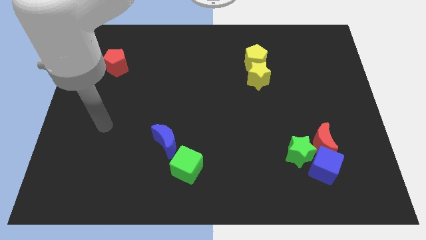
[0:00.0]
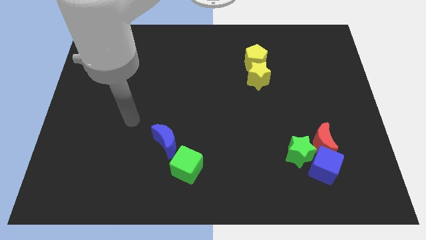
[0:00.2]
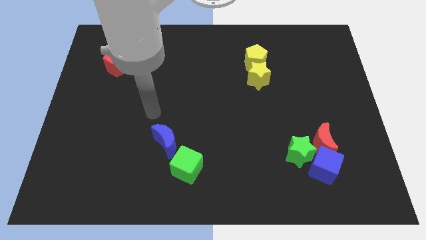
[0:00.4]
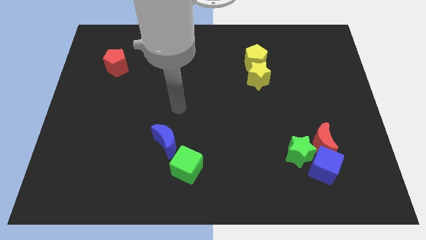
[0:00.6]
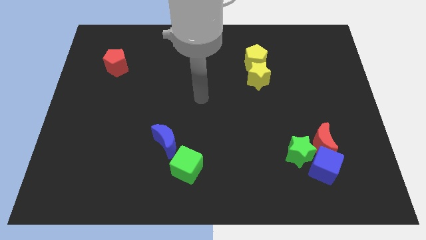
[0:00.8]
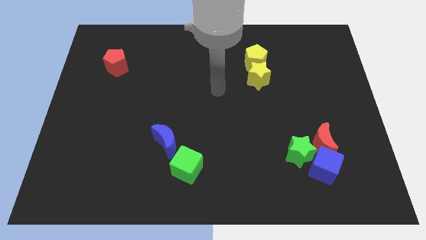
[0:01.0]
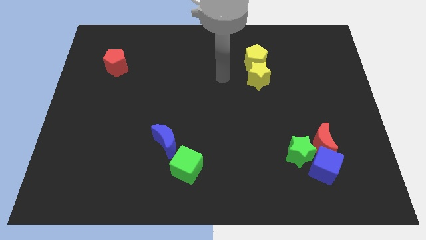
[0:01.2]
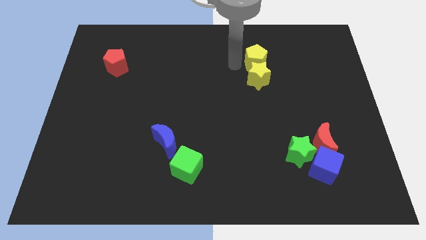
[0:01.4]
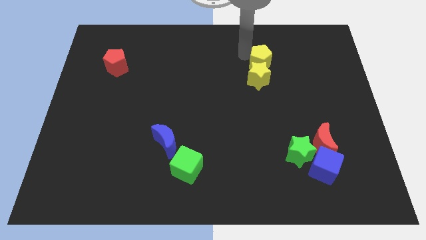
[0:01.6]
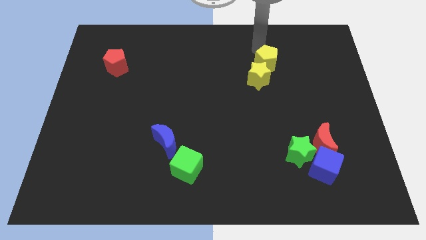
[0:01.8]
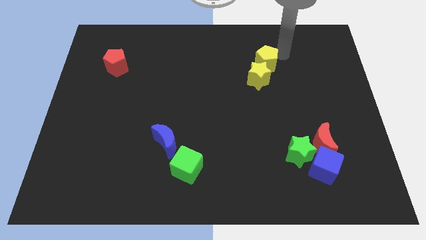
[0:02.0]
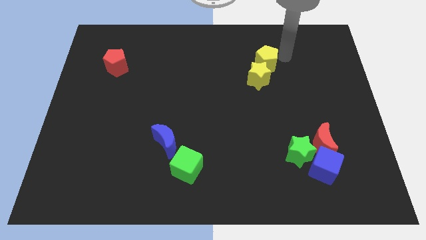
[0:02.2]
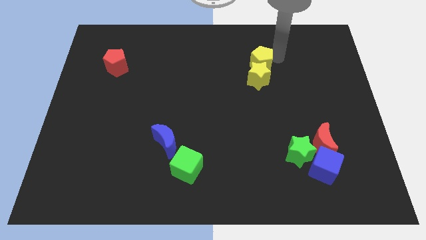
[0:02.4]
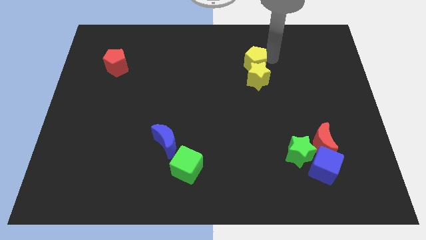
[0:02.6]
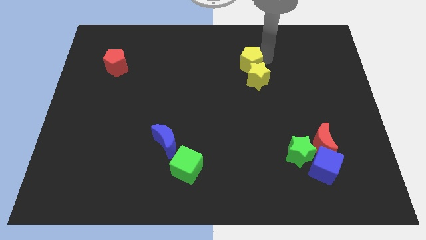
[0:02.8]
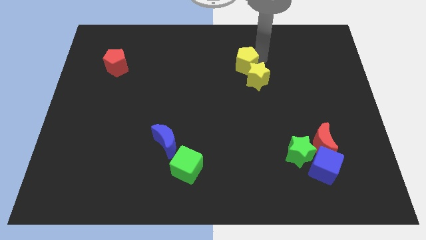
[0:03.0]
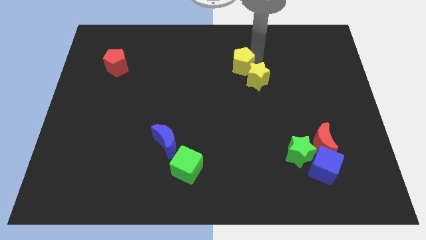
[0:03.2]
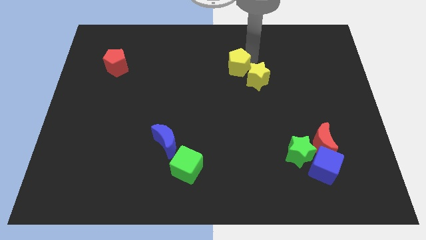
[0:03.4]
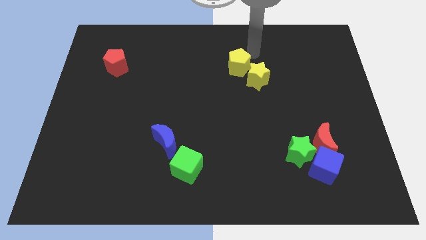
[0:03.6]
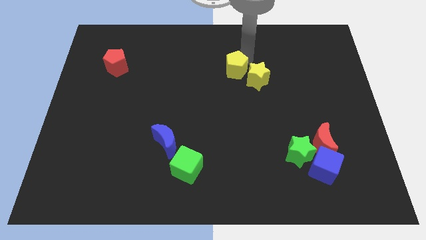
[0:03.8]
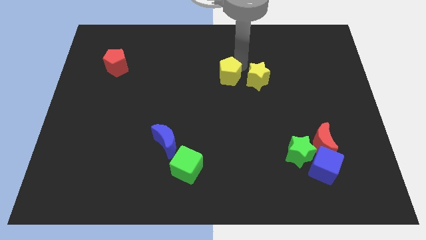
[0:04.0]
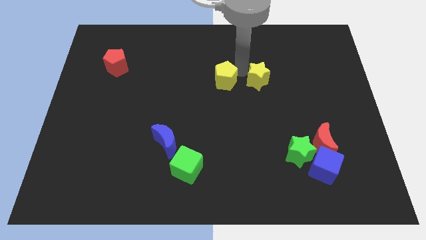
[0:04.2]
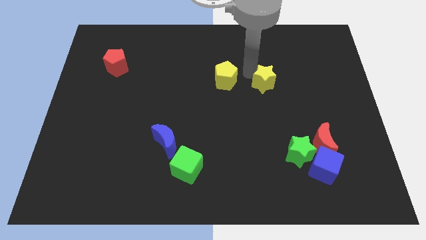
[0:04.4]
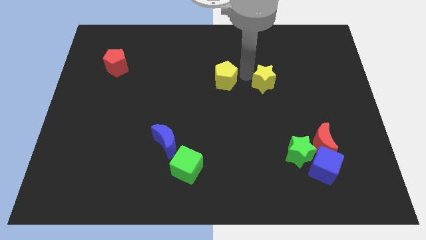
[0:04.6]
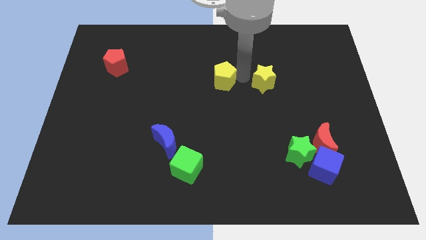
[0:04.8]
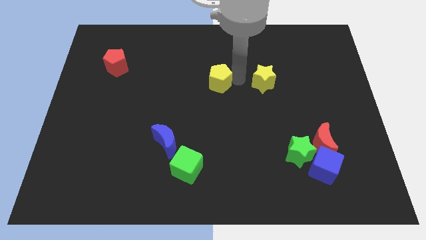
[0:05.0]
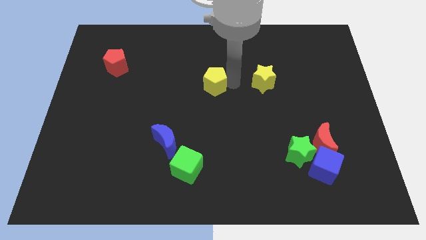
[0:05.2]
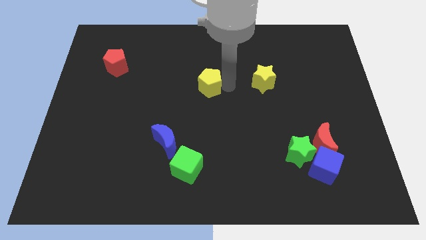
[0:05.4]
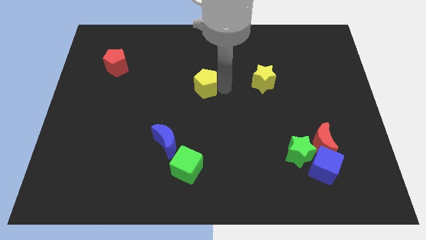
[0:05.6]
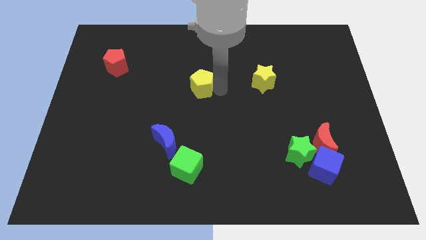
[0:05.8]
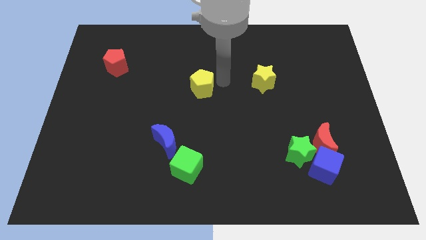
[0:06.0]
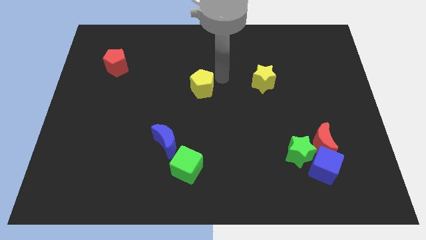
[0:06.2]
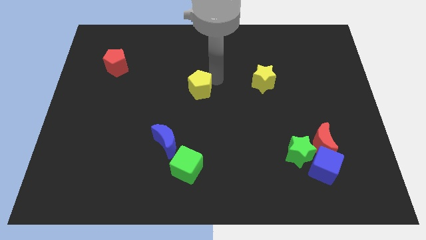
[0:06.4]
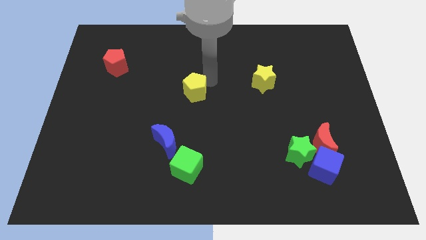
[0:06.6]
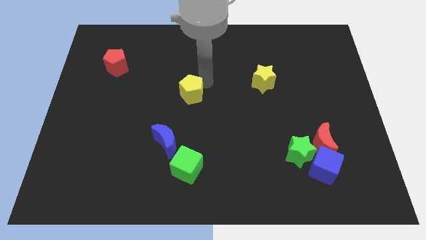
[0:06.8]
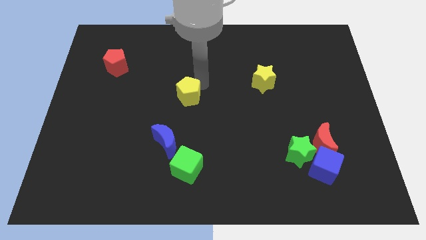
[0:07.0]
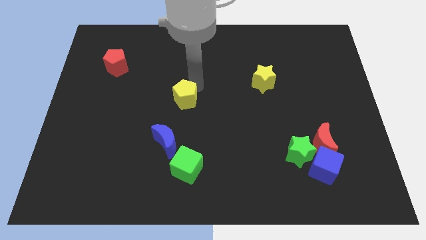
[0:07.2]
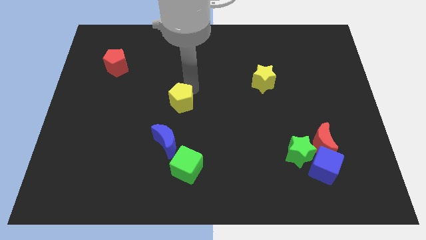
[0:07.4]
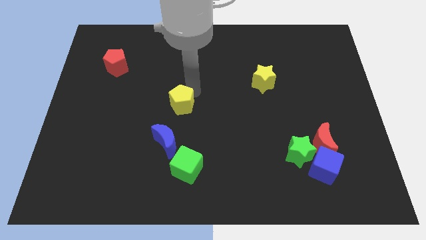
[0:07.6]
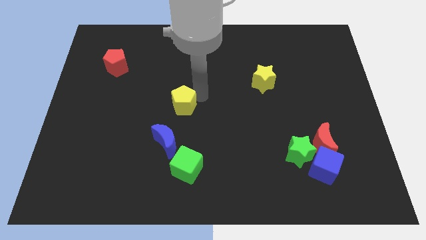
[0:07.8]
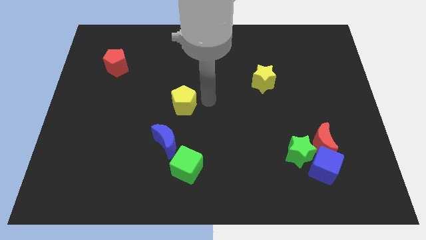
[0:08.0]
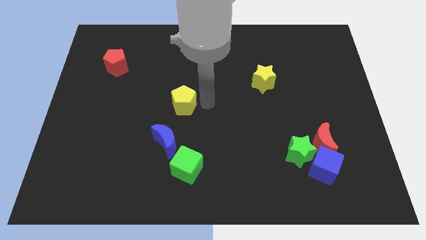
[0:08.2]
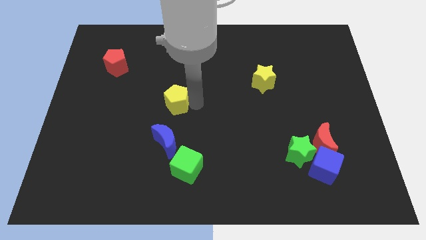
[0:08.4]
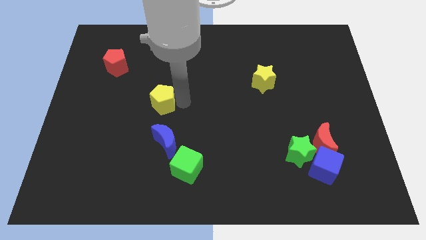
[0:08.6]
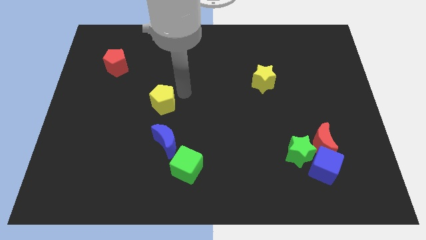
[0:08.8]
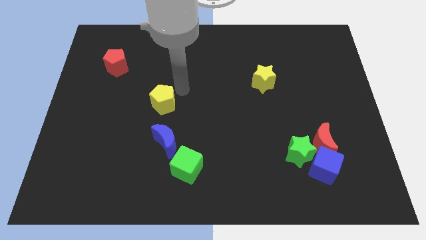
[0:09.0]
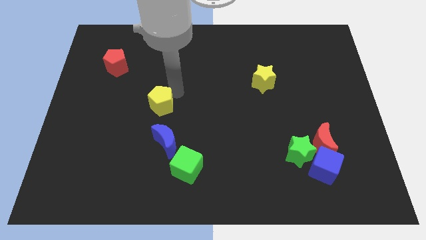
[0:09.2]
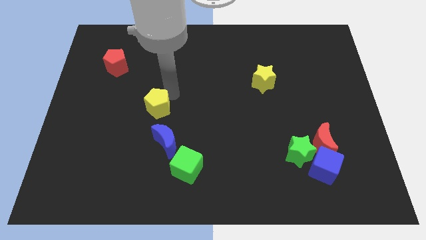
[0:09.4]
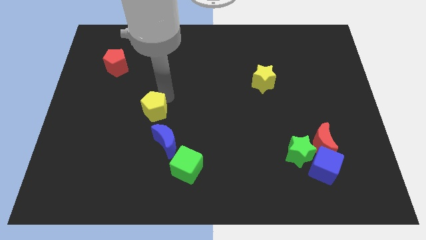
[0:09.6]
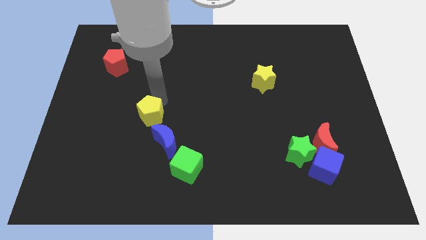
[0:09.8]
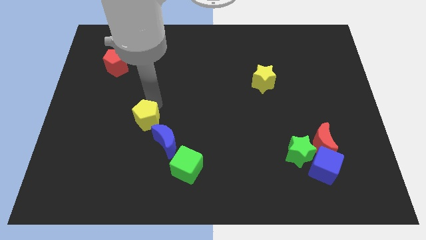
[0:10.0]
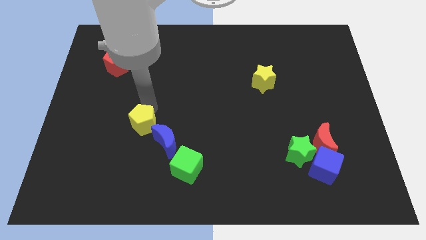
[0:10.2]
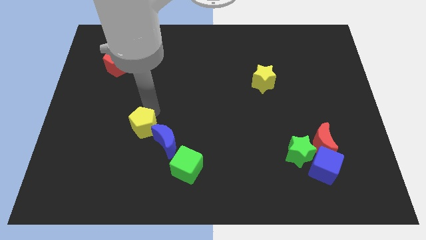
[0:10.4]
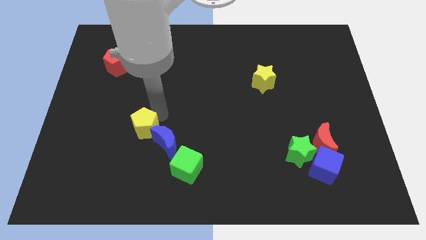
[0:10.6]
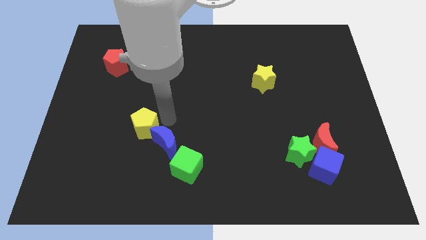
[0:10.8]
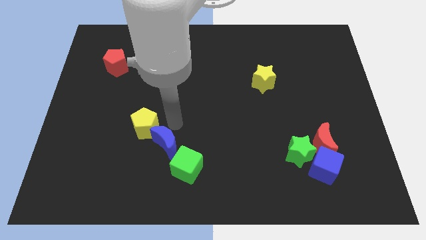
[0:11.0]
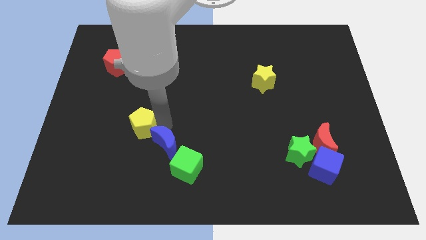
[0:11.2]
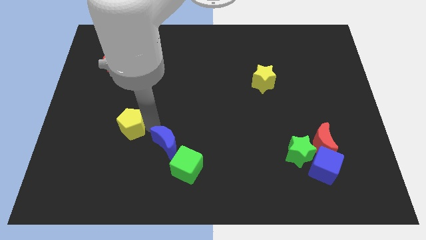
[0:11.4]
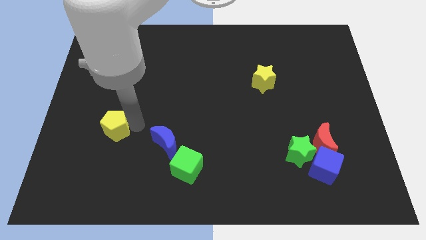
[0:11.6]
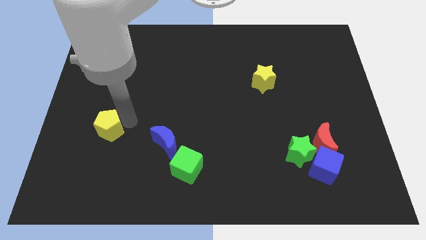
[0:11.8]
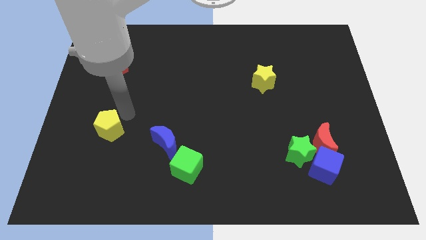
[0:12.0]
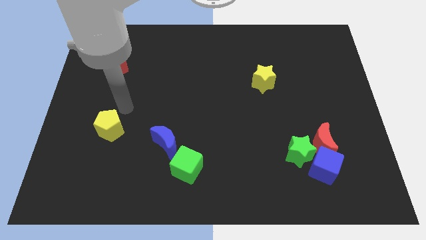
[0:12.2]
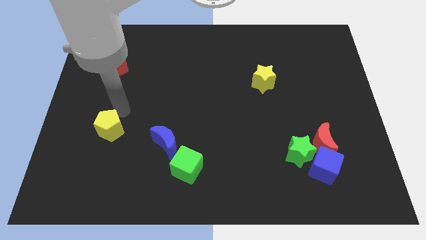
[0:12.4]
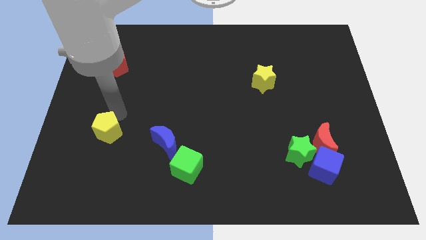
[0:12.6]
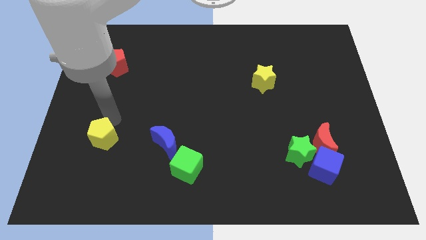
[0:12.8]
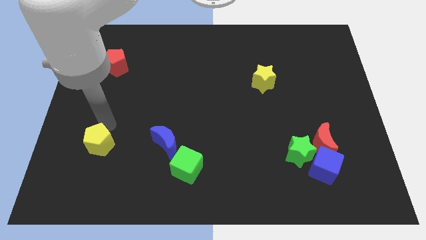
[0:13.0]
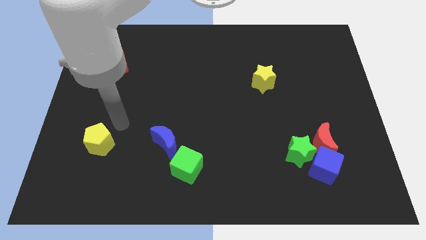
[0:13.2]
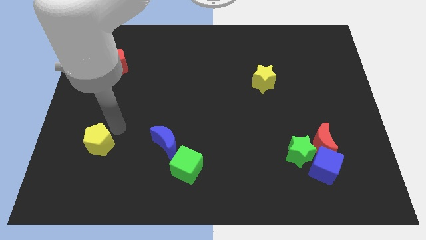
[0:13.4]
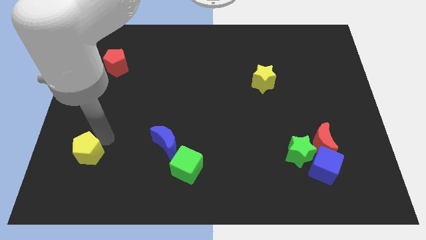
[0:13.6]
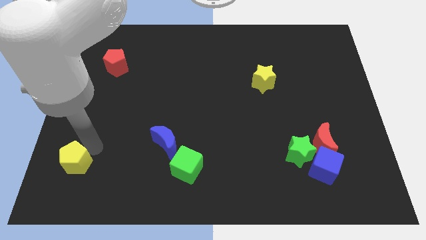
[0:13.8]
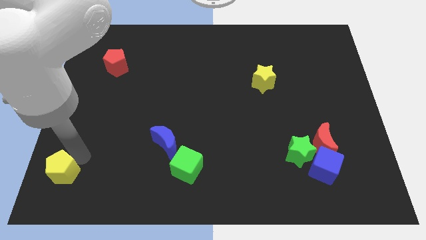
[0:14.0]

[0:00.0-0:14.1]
put the yellow pentagon to the bottom left
